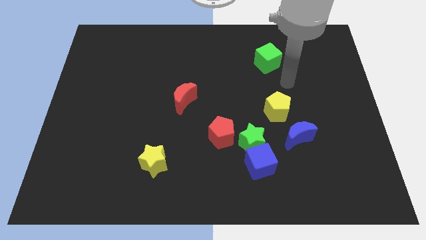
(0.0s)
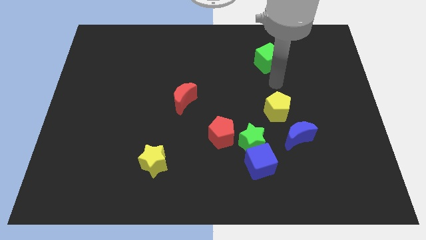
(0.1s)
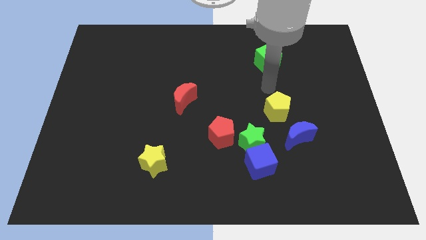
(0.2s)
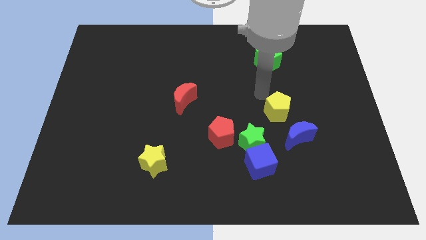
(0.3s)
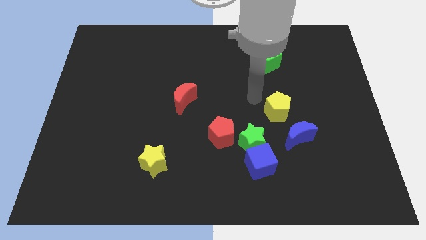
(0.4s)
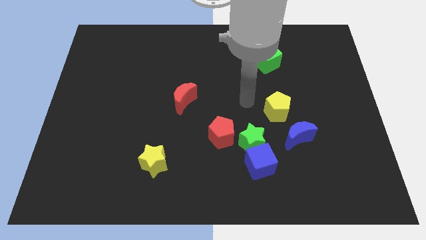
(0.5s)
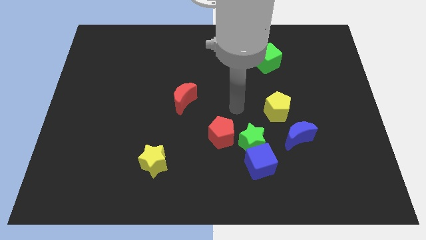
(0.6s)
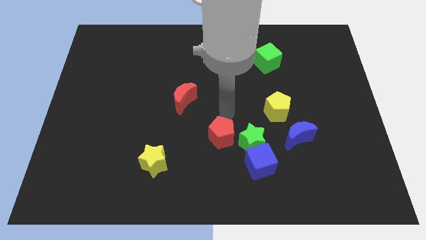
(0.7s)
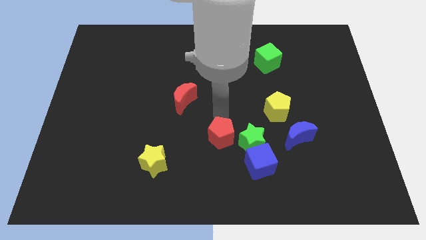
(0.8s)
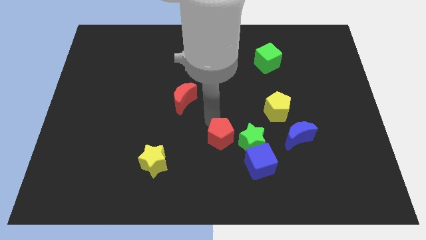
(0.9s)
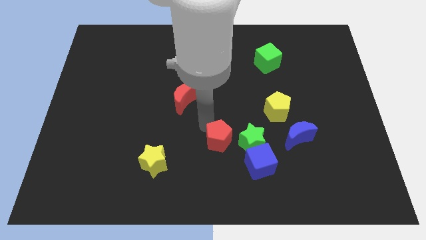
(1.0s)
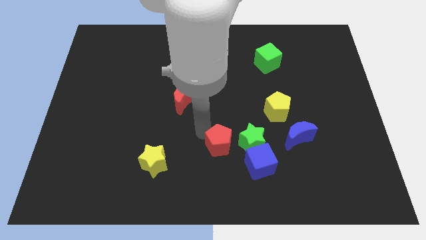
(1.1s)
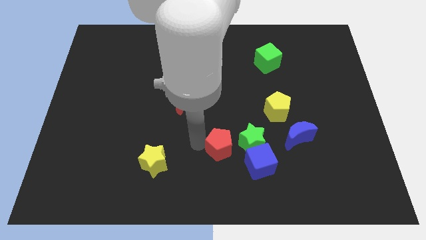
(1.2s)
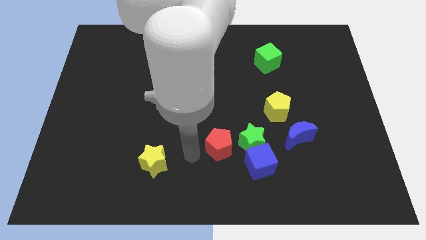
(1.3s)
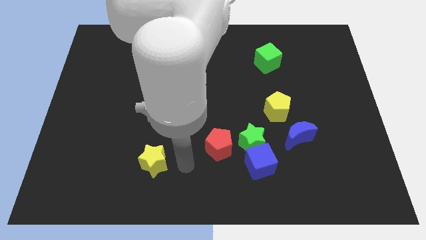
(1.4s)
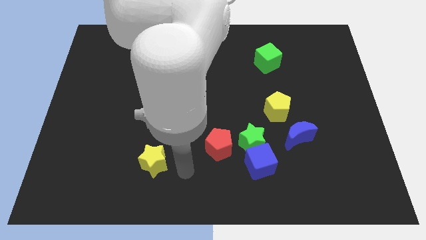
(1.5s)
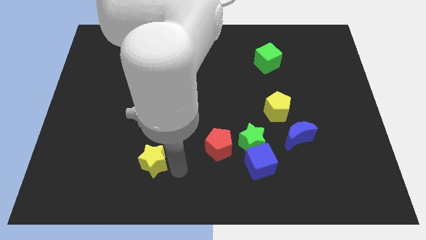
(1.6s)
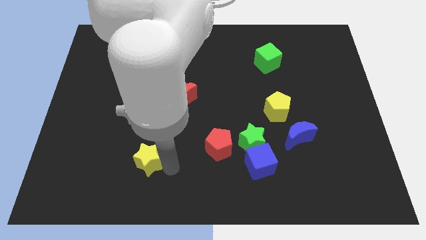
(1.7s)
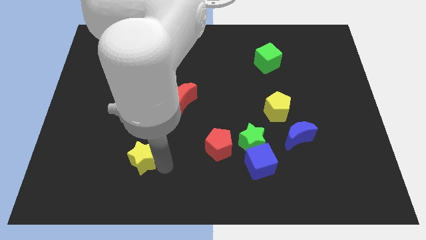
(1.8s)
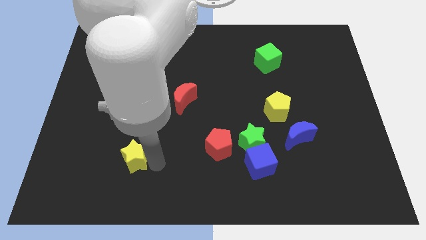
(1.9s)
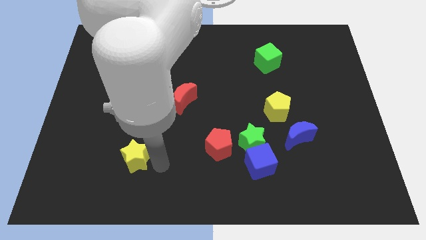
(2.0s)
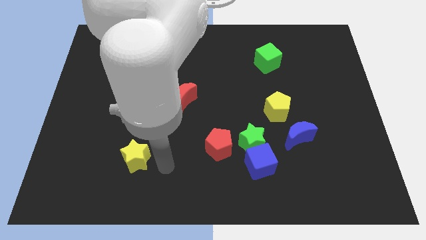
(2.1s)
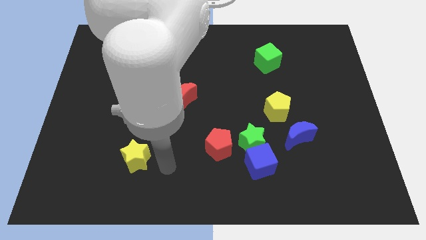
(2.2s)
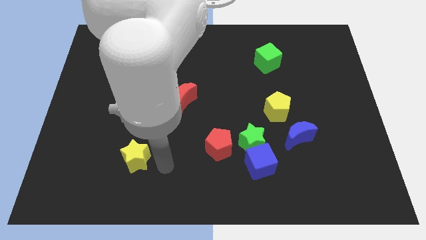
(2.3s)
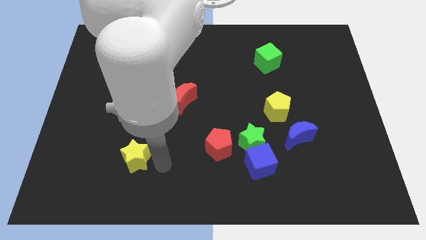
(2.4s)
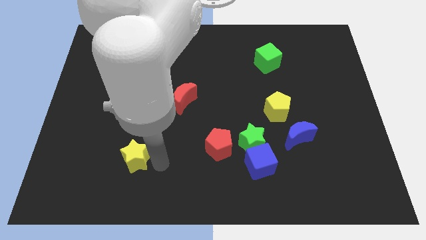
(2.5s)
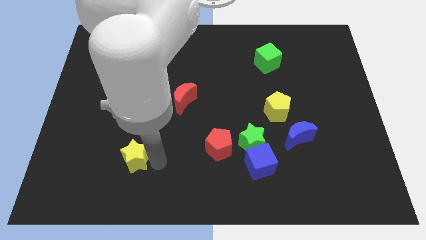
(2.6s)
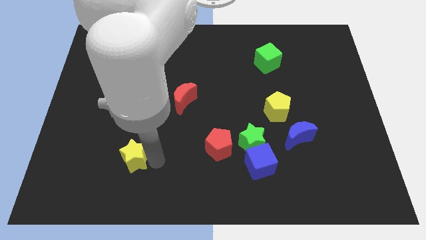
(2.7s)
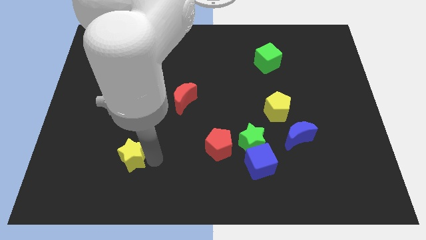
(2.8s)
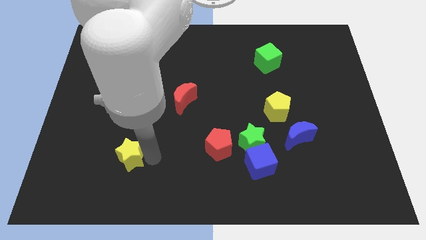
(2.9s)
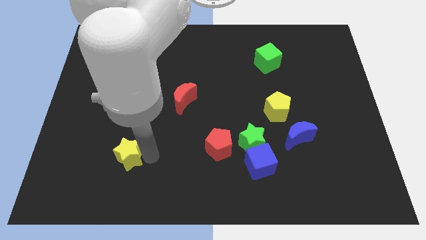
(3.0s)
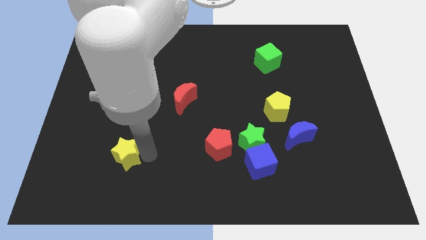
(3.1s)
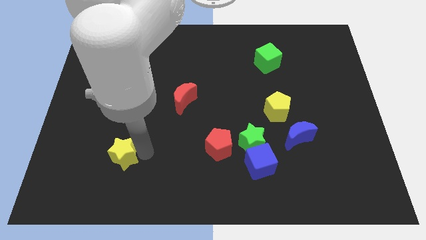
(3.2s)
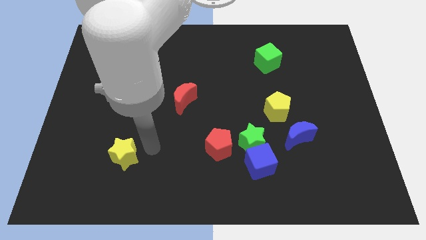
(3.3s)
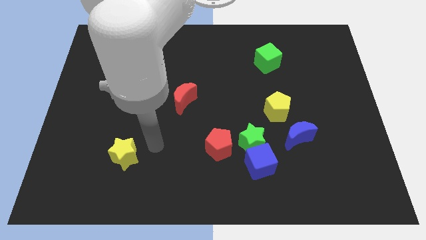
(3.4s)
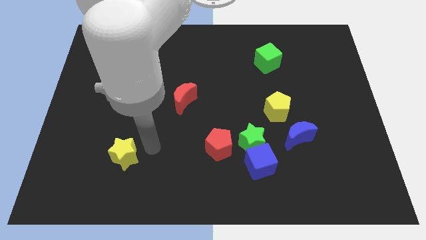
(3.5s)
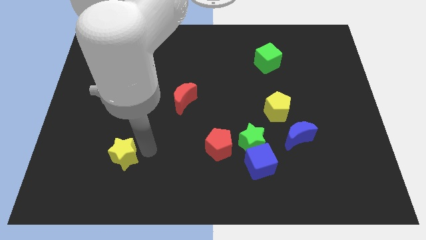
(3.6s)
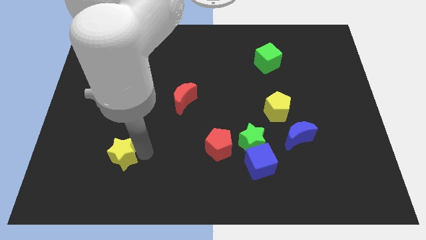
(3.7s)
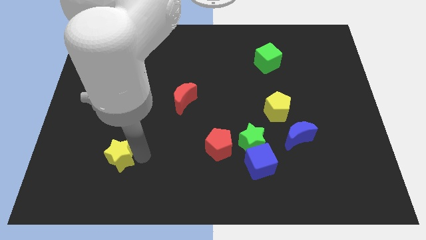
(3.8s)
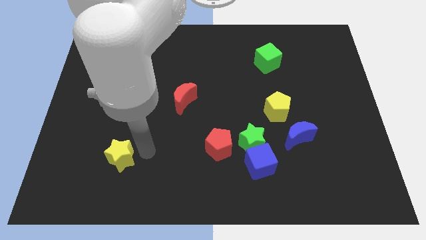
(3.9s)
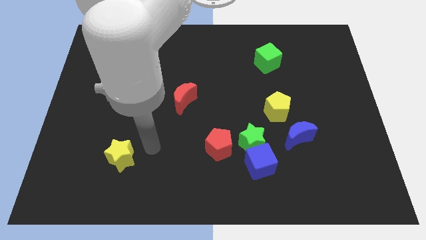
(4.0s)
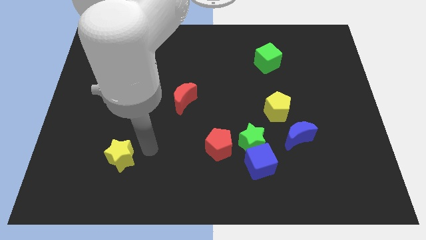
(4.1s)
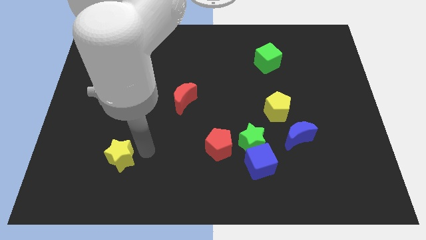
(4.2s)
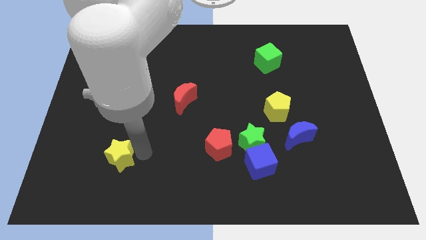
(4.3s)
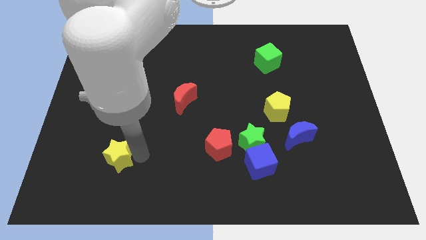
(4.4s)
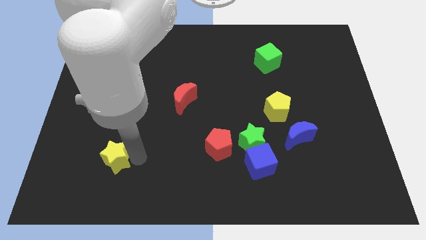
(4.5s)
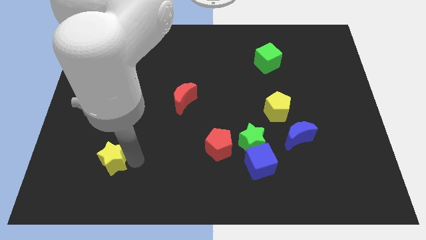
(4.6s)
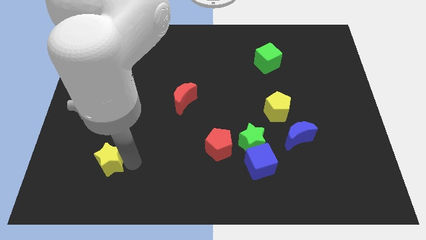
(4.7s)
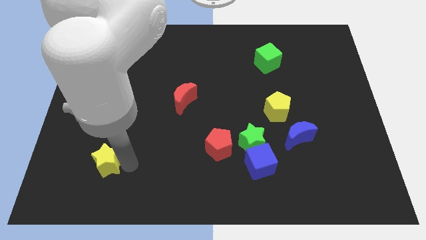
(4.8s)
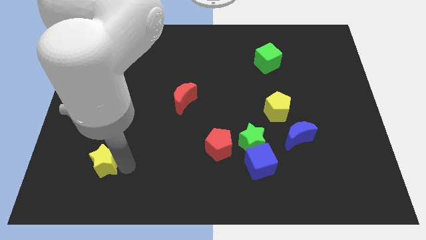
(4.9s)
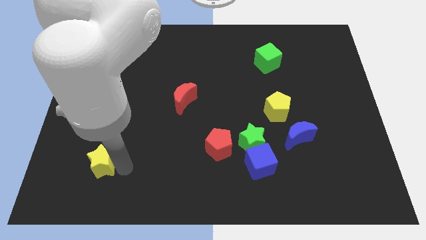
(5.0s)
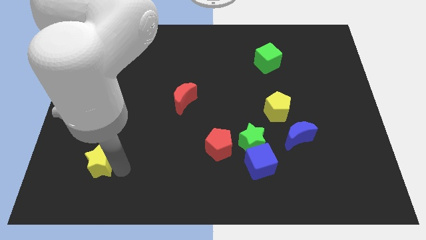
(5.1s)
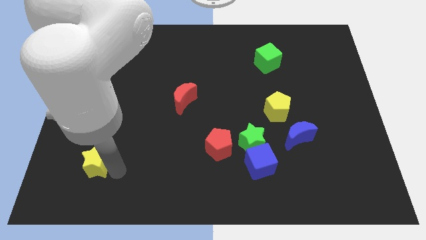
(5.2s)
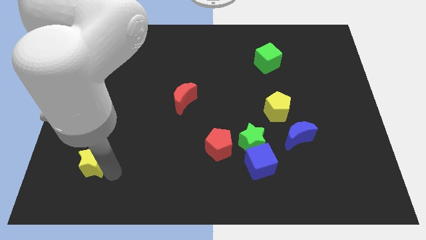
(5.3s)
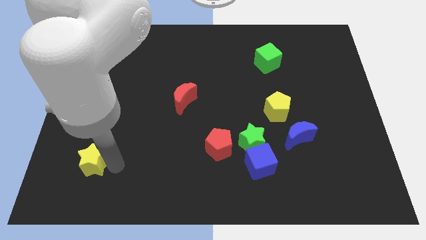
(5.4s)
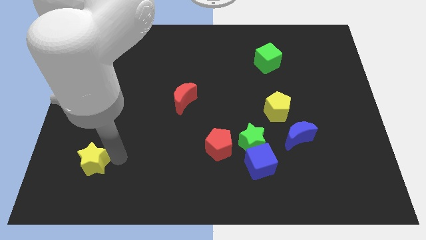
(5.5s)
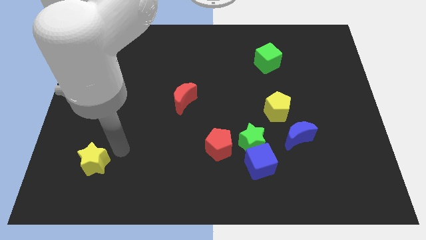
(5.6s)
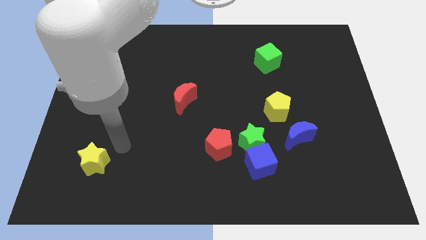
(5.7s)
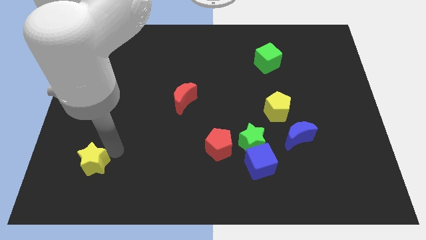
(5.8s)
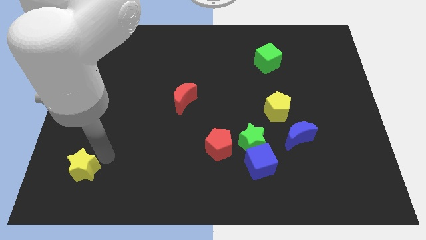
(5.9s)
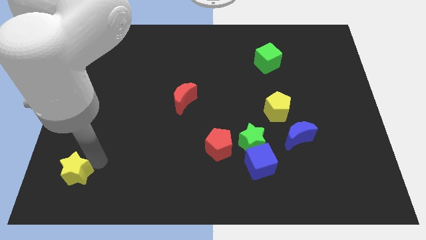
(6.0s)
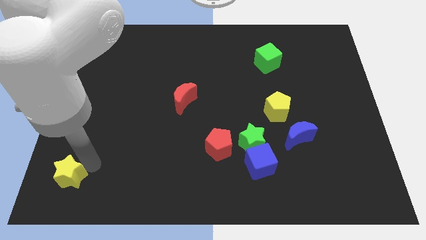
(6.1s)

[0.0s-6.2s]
move the yellow star to the bottom left corner
